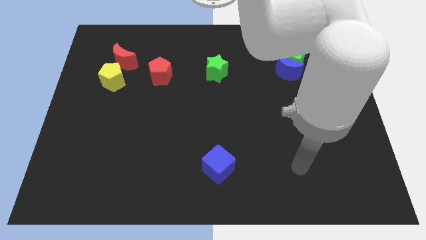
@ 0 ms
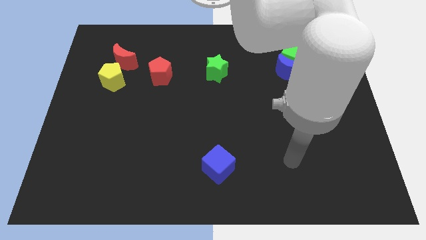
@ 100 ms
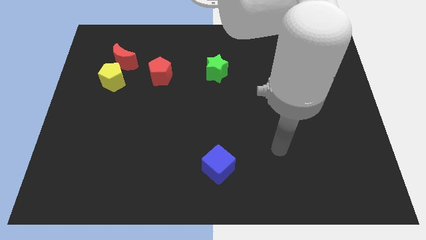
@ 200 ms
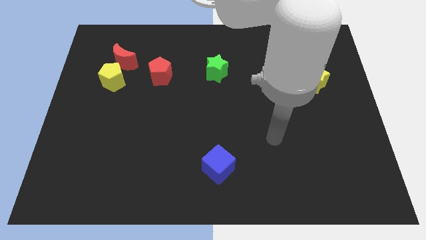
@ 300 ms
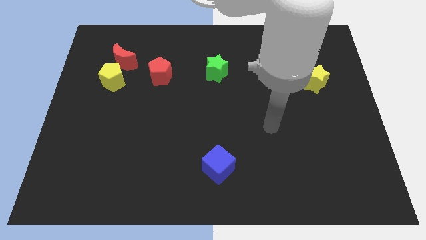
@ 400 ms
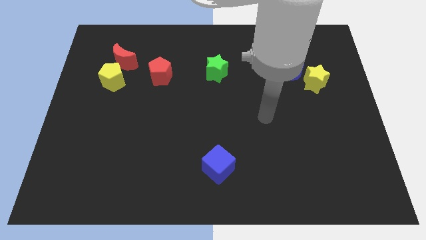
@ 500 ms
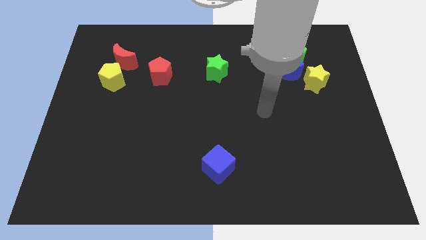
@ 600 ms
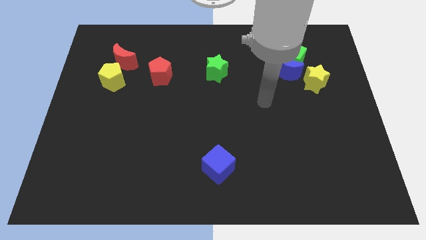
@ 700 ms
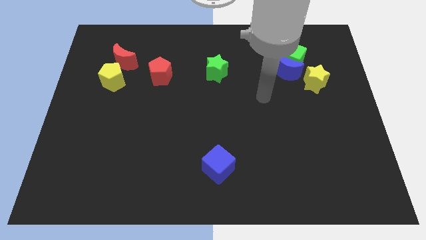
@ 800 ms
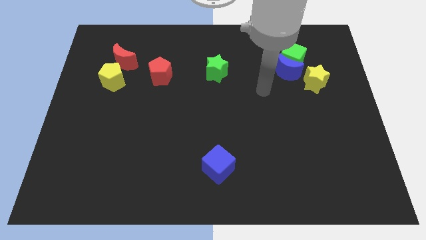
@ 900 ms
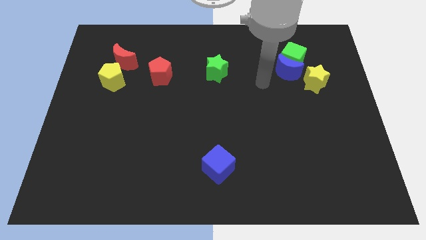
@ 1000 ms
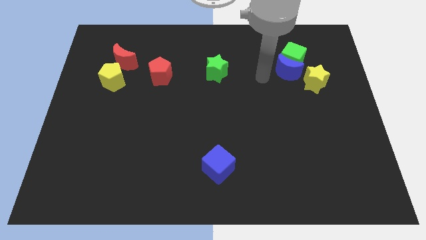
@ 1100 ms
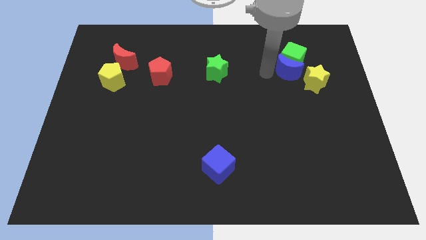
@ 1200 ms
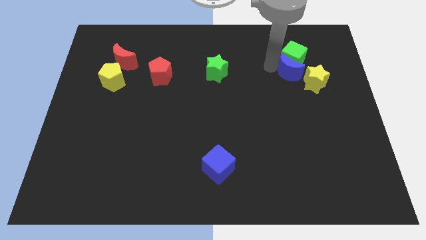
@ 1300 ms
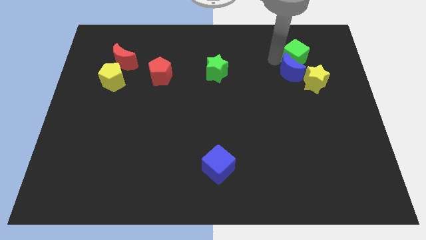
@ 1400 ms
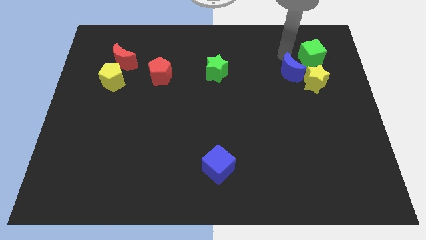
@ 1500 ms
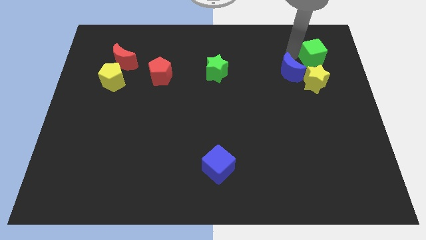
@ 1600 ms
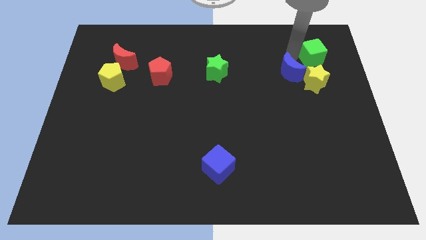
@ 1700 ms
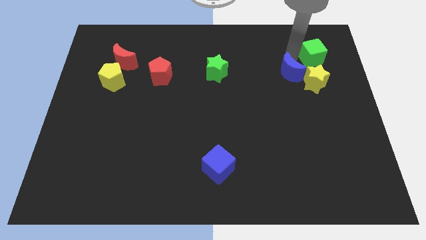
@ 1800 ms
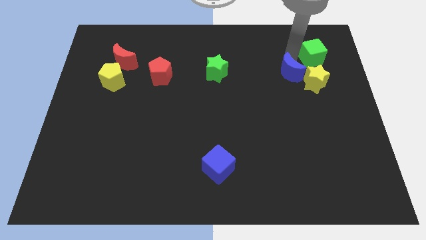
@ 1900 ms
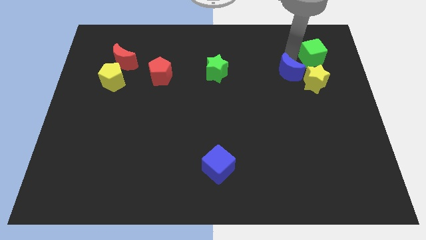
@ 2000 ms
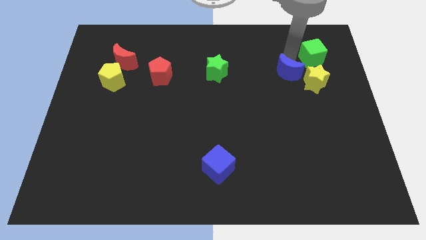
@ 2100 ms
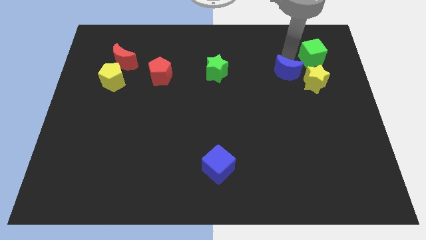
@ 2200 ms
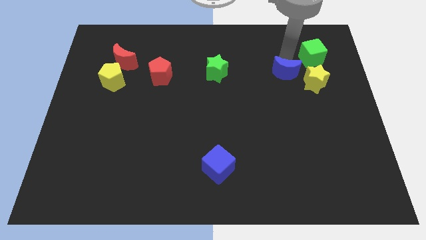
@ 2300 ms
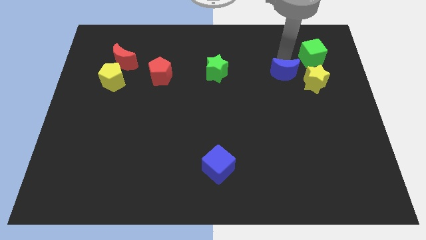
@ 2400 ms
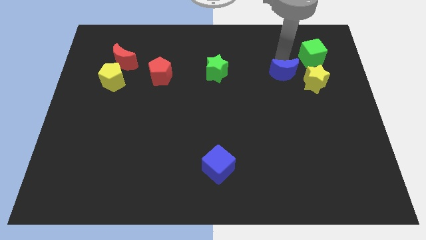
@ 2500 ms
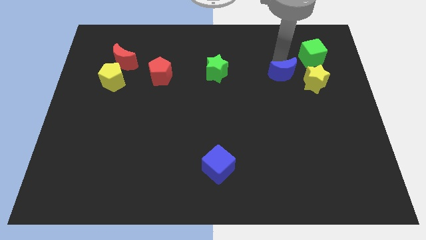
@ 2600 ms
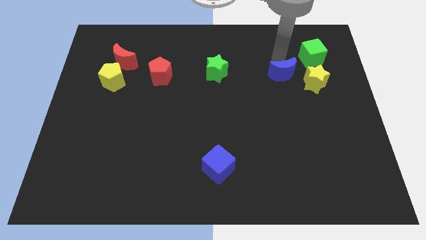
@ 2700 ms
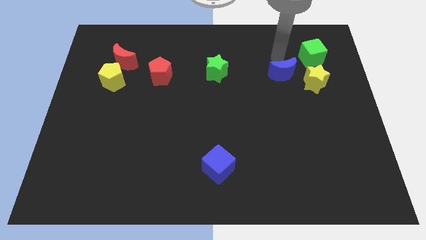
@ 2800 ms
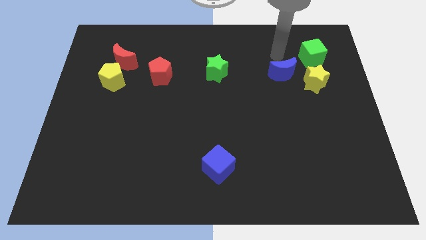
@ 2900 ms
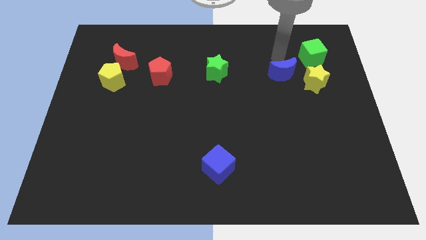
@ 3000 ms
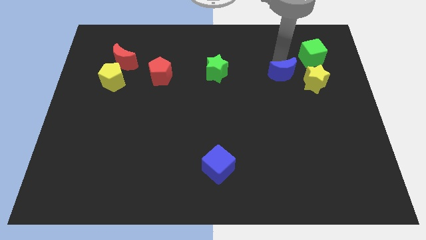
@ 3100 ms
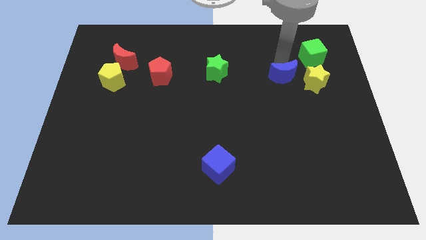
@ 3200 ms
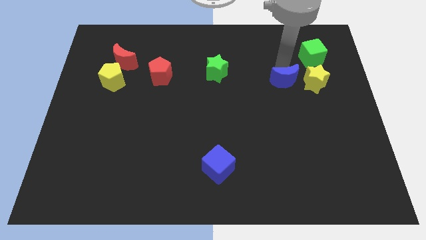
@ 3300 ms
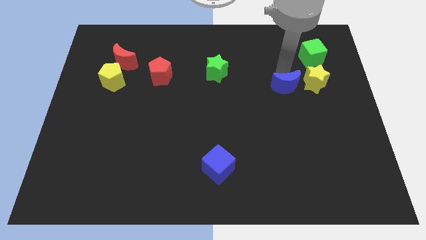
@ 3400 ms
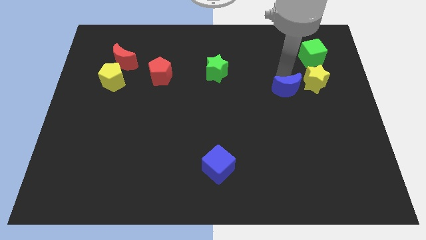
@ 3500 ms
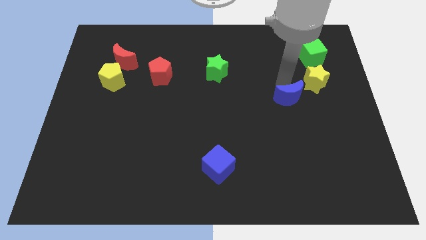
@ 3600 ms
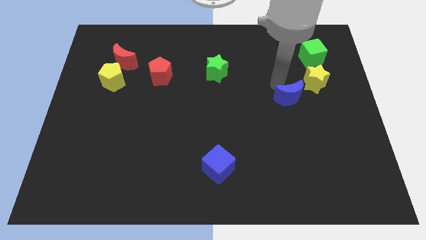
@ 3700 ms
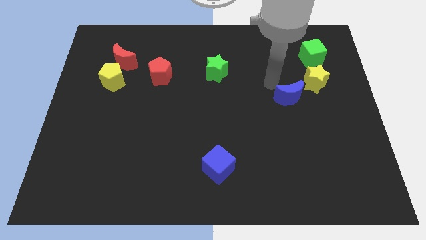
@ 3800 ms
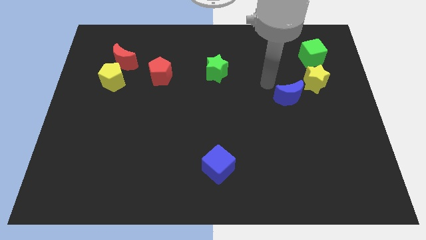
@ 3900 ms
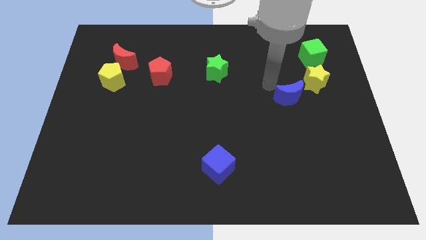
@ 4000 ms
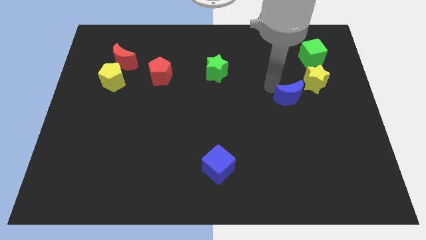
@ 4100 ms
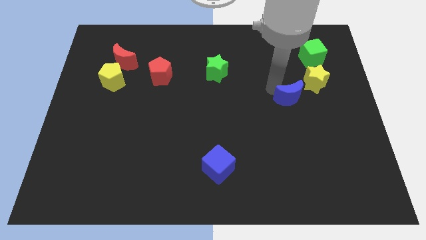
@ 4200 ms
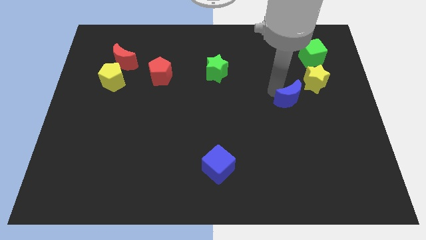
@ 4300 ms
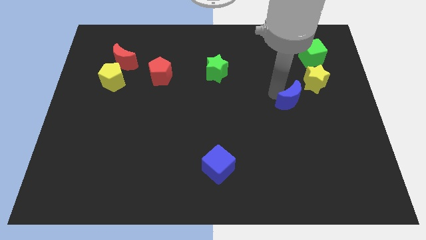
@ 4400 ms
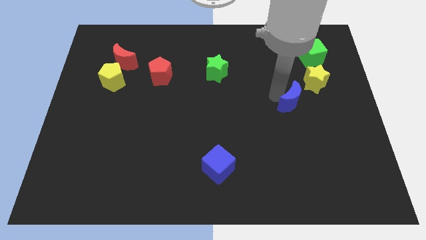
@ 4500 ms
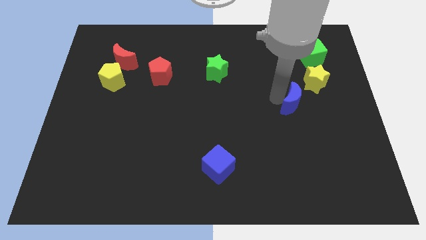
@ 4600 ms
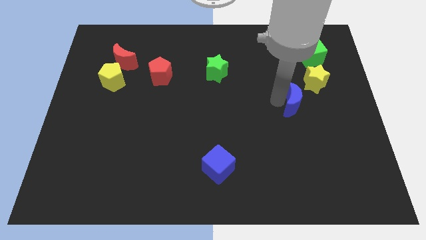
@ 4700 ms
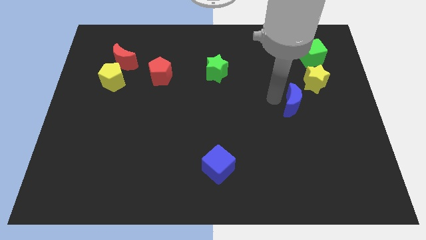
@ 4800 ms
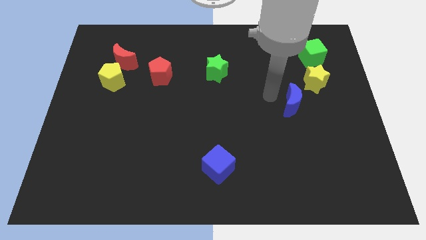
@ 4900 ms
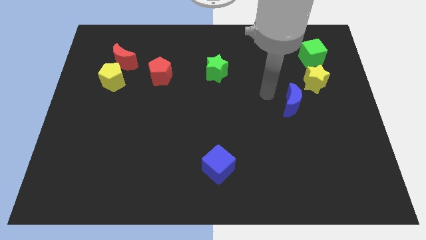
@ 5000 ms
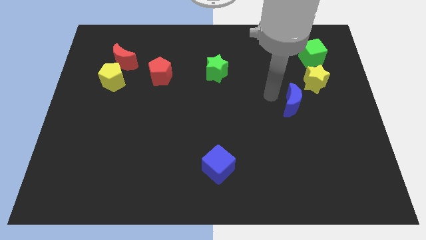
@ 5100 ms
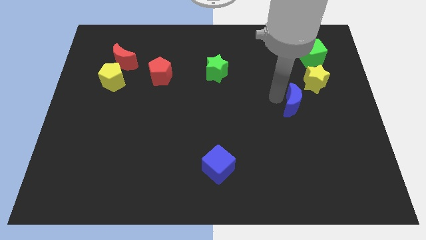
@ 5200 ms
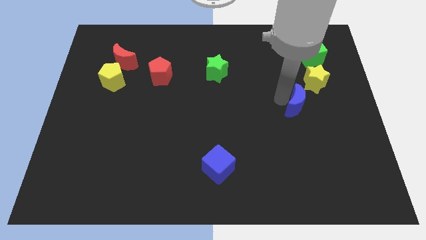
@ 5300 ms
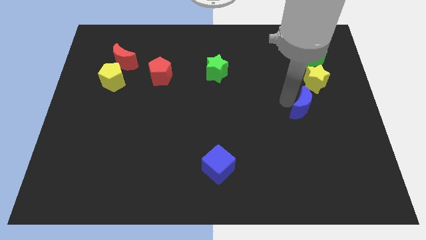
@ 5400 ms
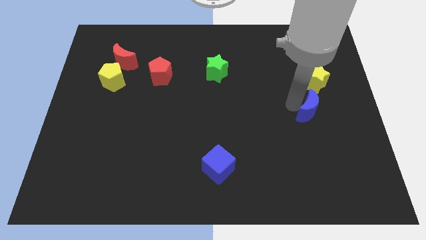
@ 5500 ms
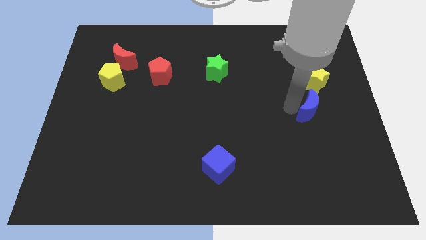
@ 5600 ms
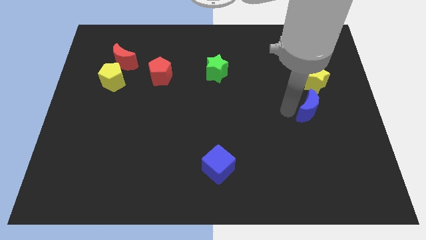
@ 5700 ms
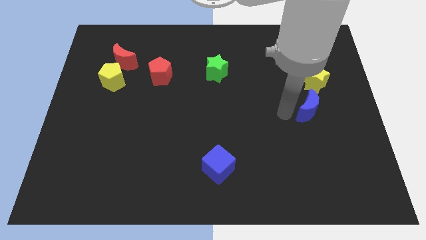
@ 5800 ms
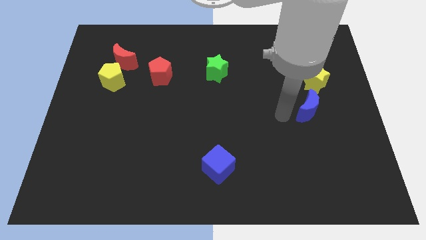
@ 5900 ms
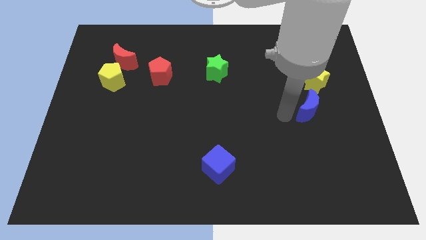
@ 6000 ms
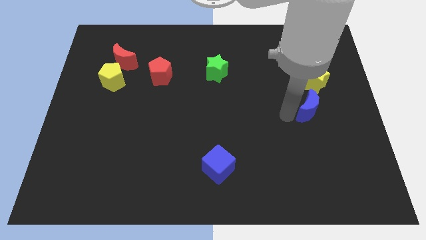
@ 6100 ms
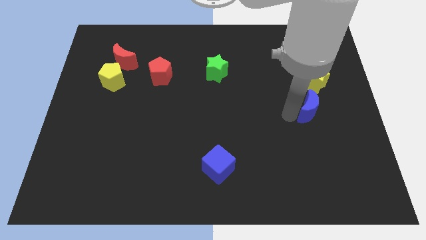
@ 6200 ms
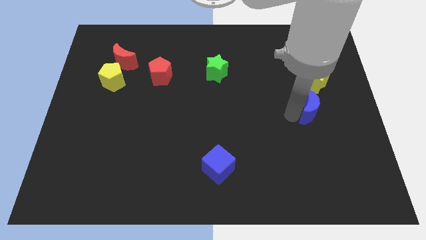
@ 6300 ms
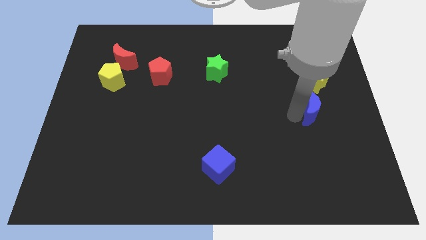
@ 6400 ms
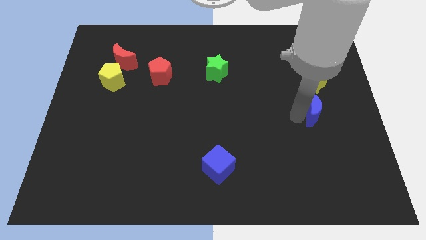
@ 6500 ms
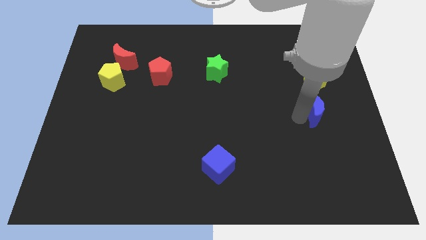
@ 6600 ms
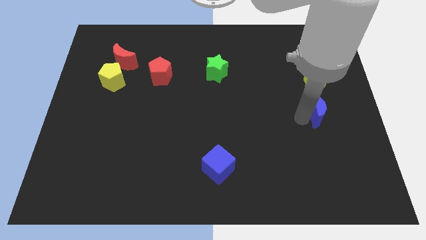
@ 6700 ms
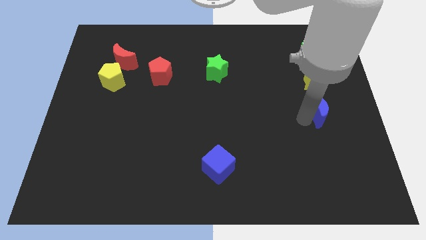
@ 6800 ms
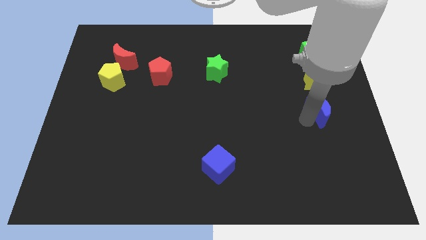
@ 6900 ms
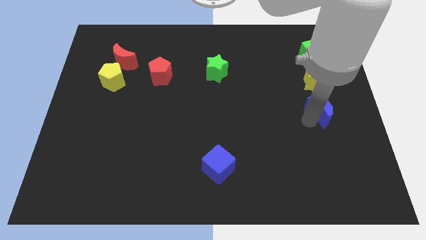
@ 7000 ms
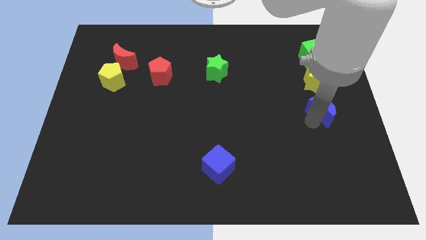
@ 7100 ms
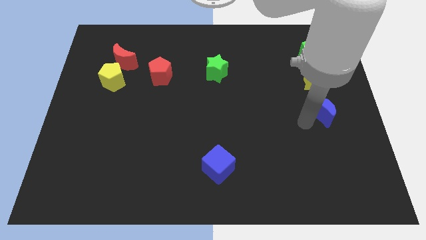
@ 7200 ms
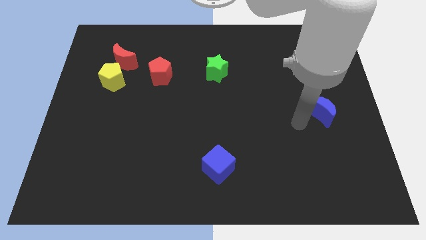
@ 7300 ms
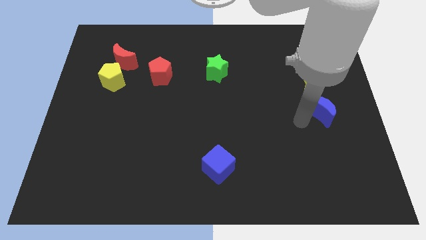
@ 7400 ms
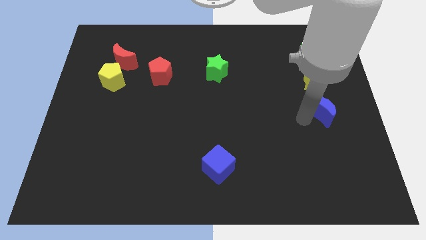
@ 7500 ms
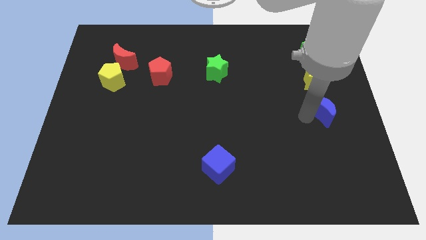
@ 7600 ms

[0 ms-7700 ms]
put the blue moon to the center right
